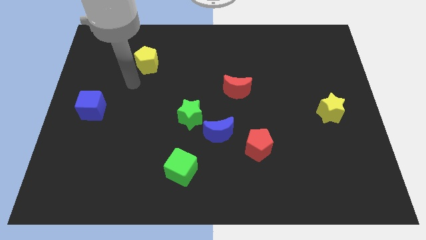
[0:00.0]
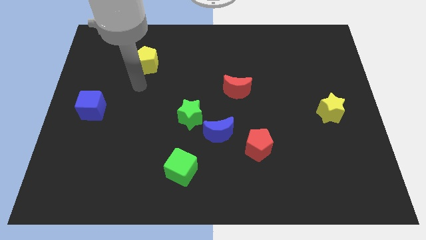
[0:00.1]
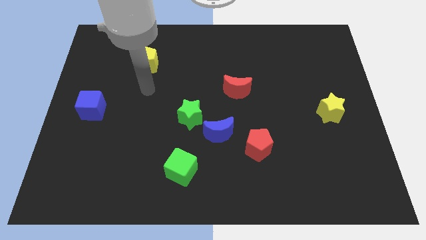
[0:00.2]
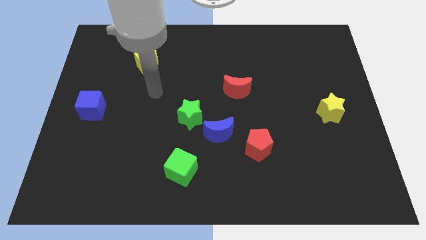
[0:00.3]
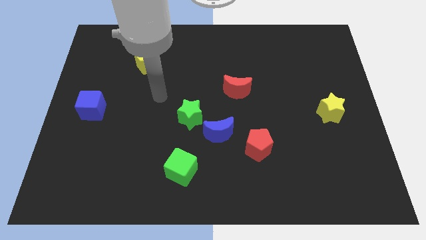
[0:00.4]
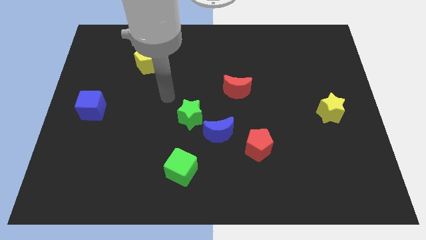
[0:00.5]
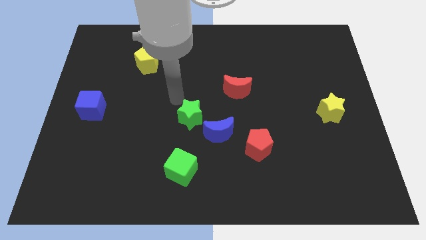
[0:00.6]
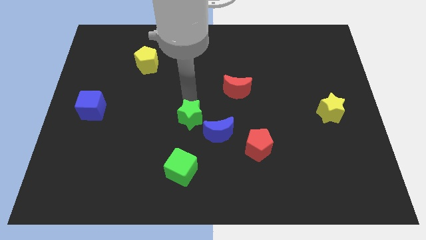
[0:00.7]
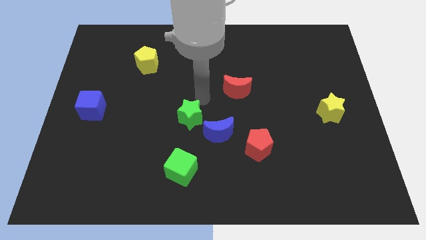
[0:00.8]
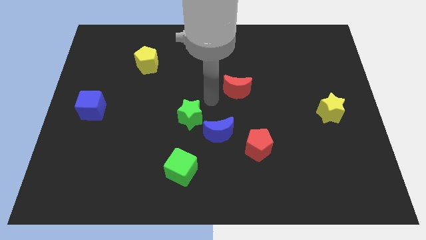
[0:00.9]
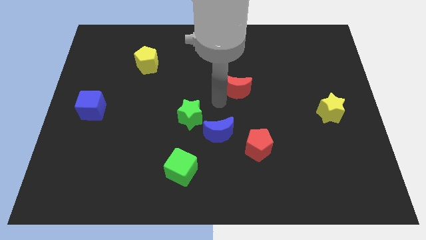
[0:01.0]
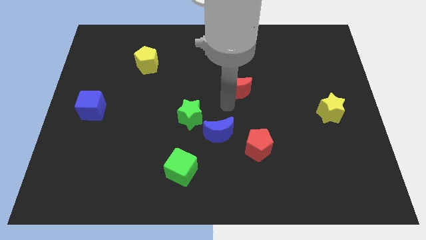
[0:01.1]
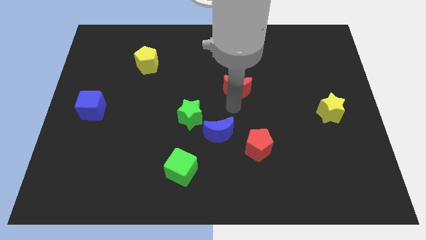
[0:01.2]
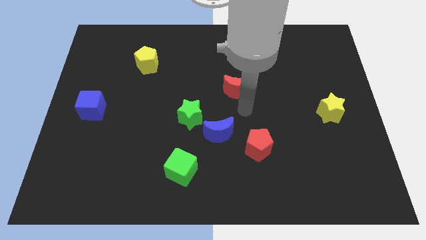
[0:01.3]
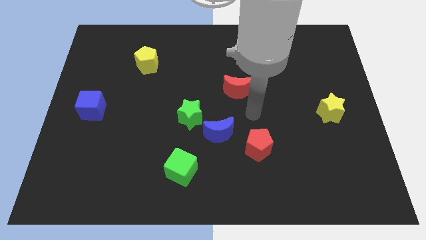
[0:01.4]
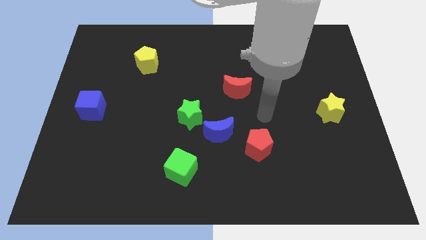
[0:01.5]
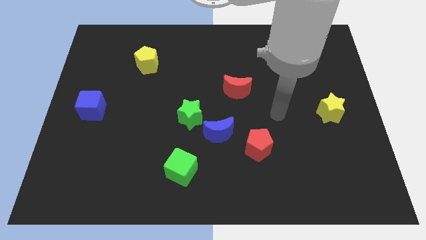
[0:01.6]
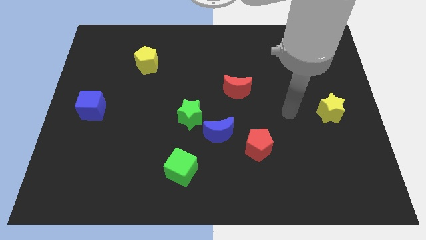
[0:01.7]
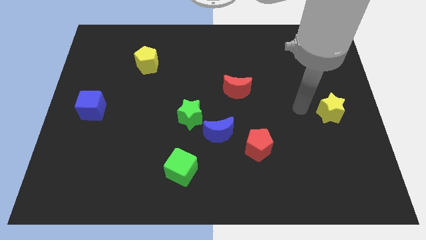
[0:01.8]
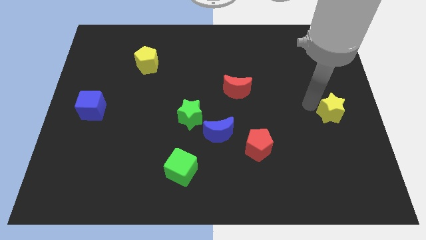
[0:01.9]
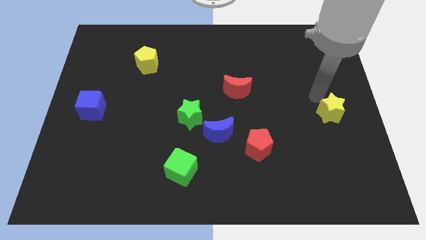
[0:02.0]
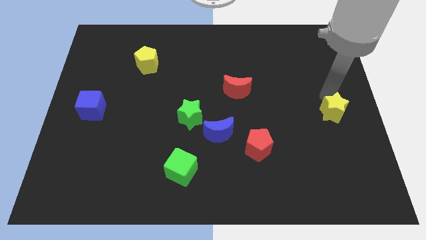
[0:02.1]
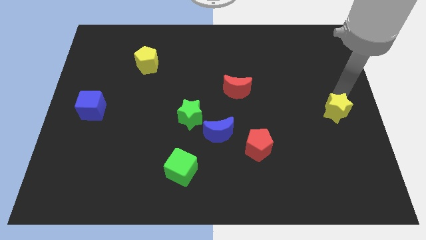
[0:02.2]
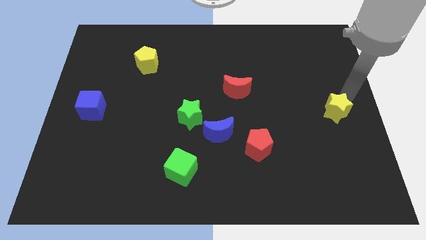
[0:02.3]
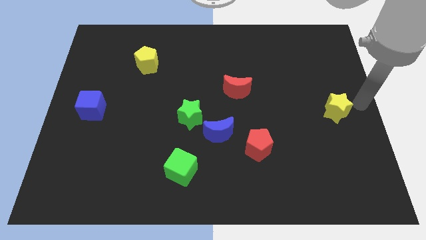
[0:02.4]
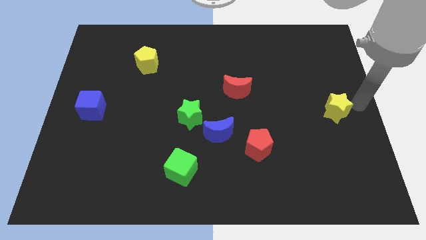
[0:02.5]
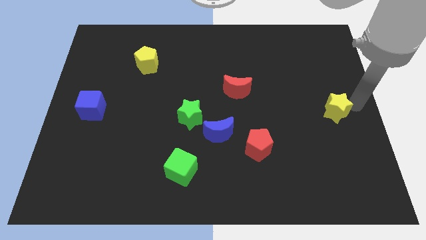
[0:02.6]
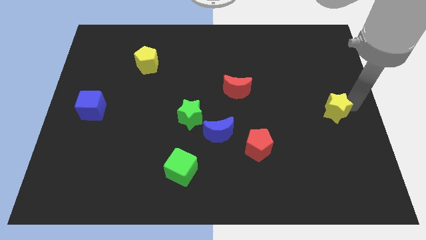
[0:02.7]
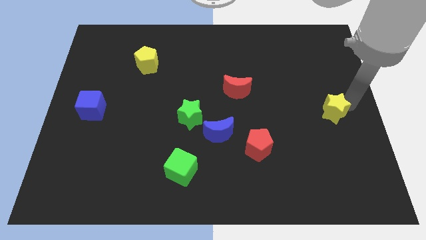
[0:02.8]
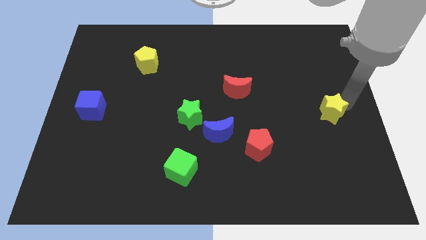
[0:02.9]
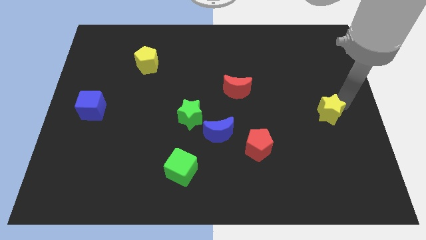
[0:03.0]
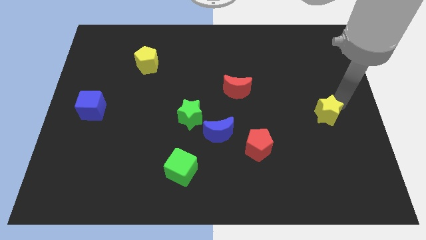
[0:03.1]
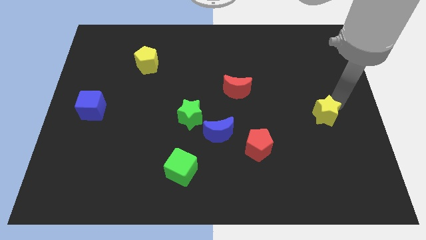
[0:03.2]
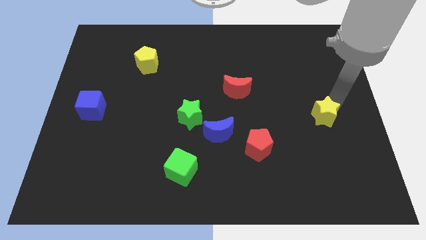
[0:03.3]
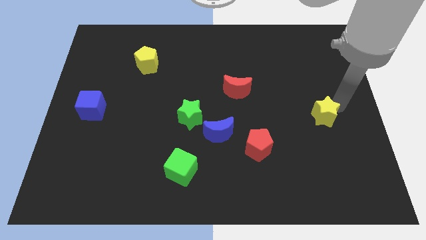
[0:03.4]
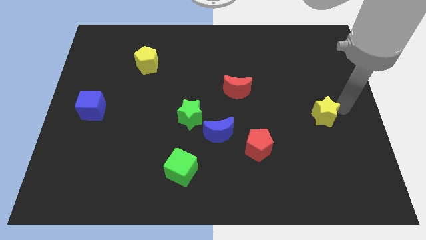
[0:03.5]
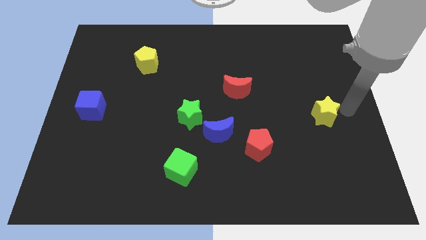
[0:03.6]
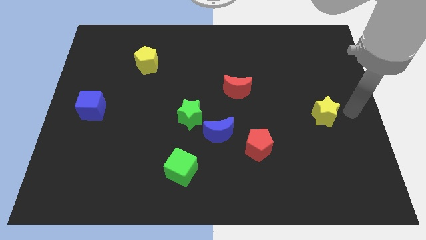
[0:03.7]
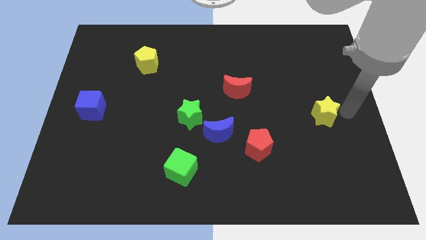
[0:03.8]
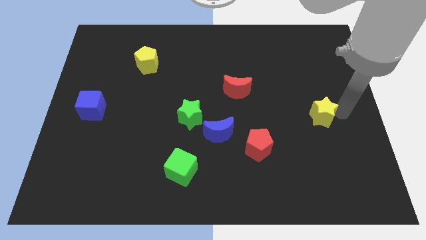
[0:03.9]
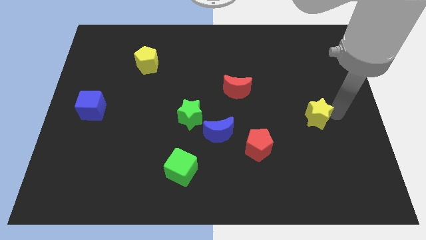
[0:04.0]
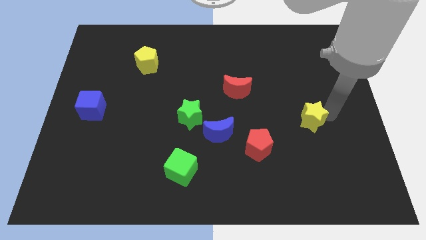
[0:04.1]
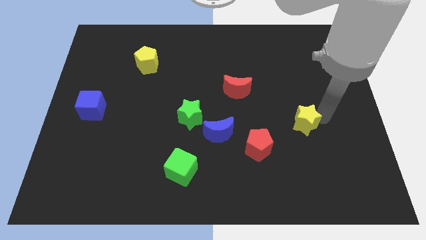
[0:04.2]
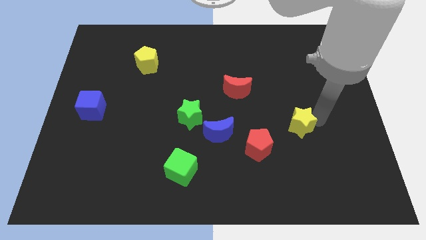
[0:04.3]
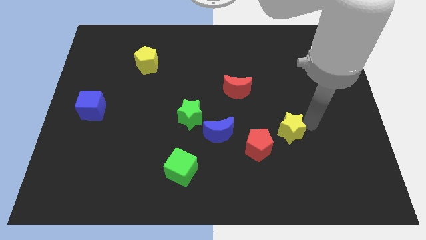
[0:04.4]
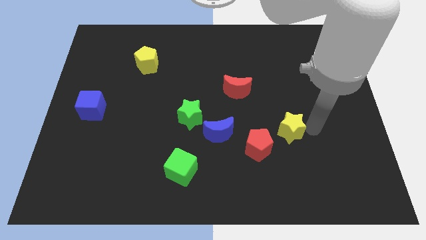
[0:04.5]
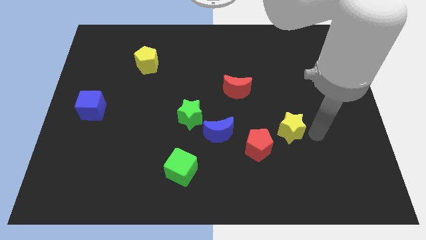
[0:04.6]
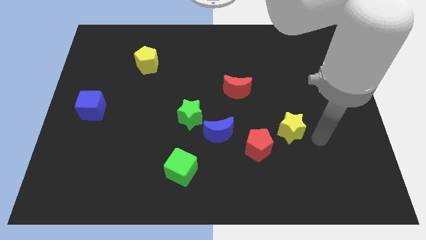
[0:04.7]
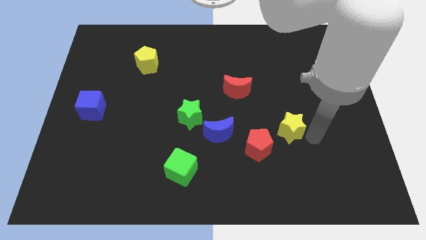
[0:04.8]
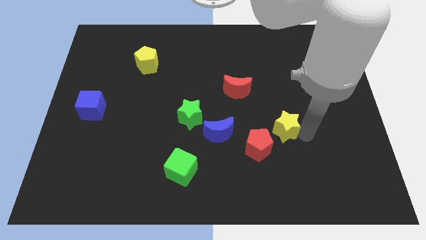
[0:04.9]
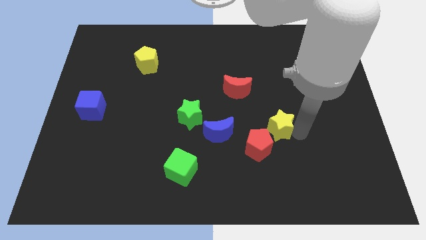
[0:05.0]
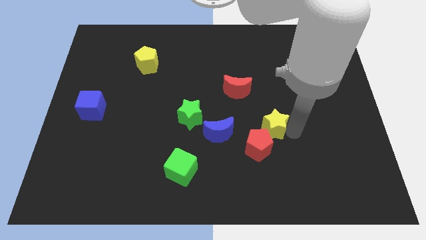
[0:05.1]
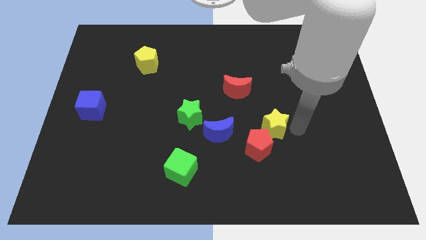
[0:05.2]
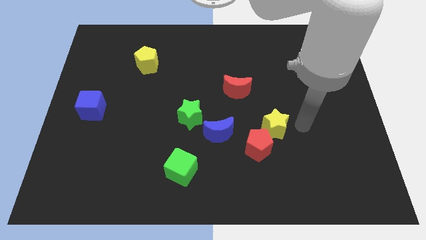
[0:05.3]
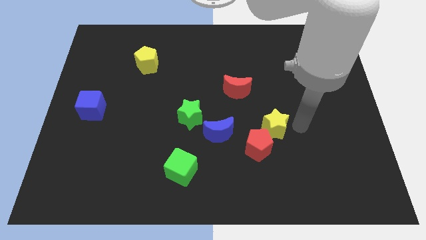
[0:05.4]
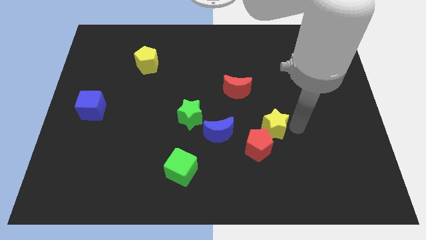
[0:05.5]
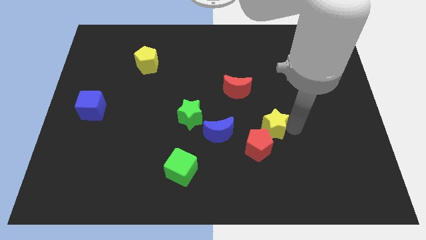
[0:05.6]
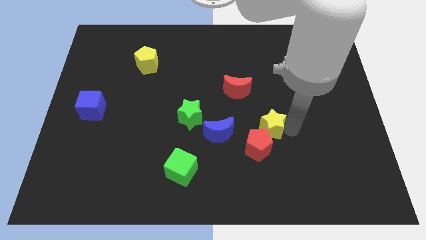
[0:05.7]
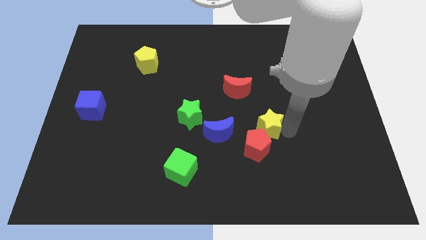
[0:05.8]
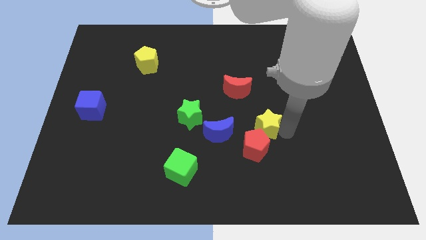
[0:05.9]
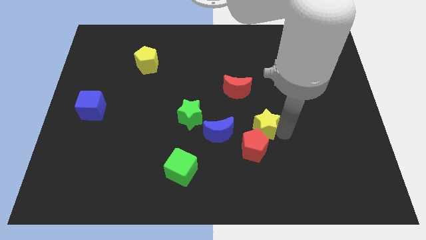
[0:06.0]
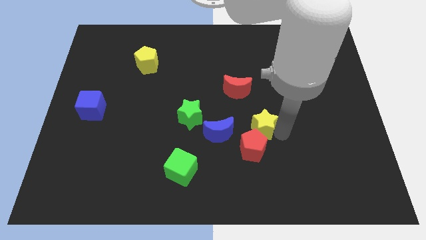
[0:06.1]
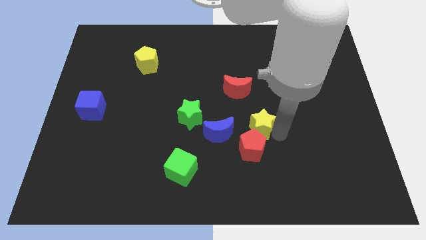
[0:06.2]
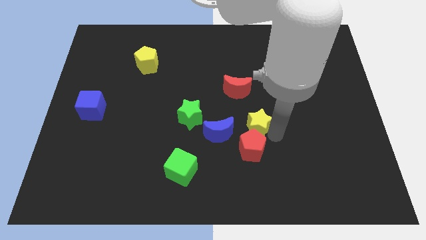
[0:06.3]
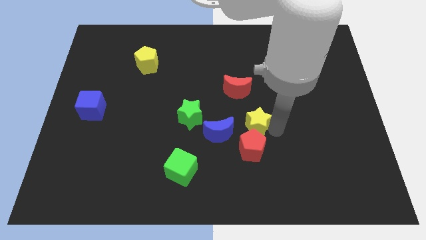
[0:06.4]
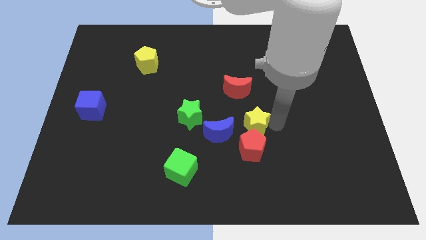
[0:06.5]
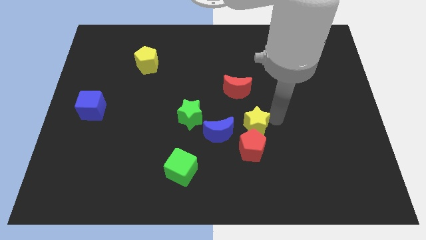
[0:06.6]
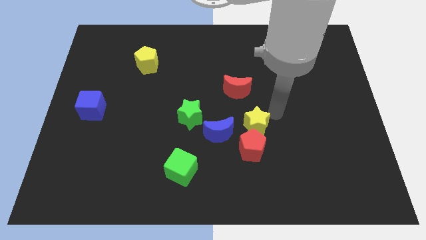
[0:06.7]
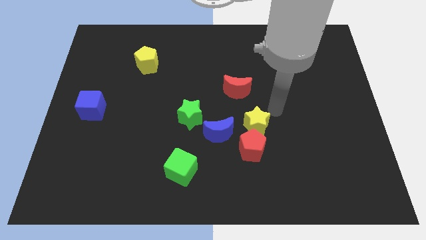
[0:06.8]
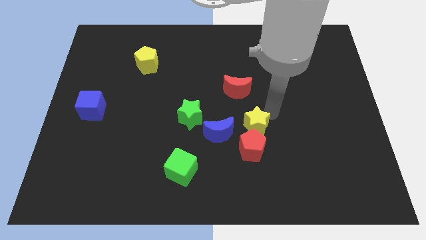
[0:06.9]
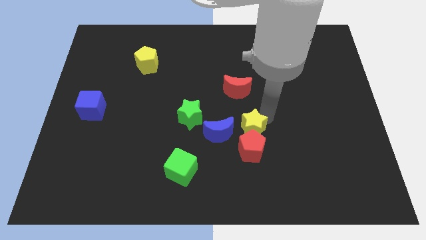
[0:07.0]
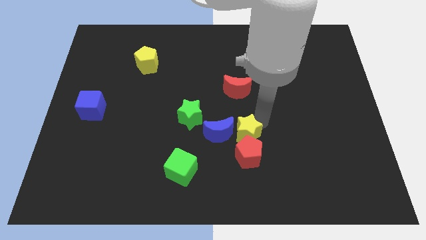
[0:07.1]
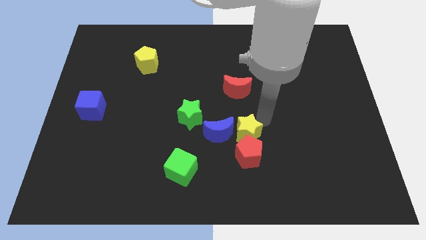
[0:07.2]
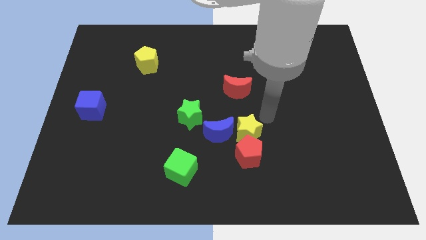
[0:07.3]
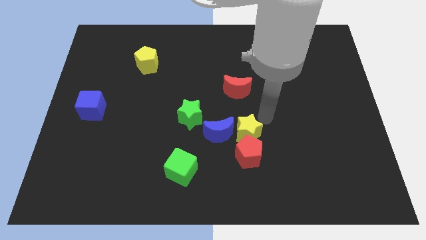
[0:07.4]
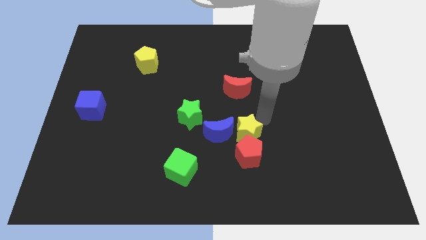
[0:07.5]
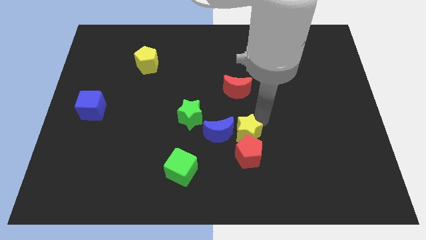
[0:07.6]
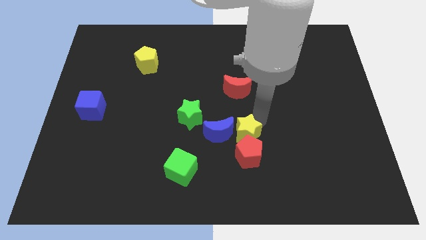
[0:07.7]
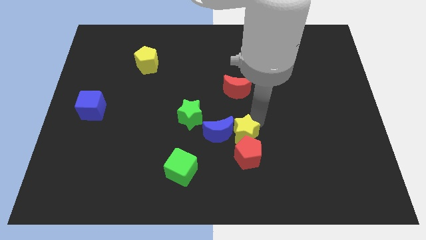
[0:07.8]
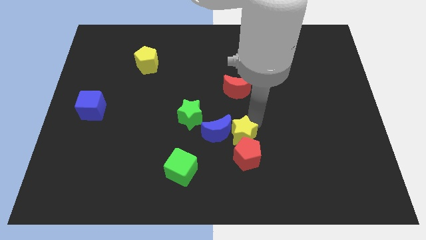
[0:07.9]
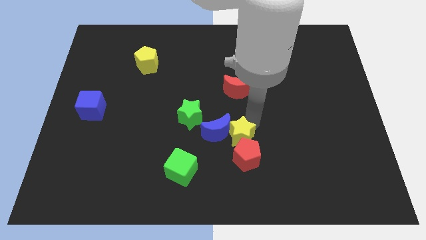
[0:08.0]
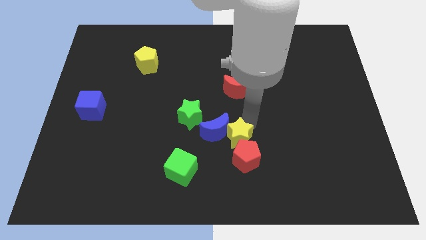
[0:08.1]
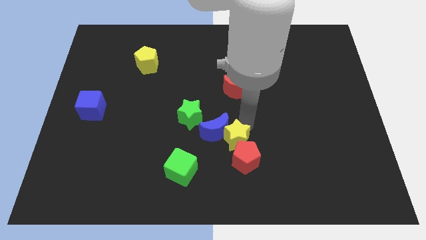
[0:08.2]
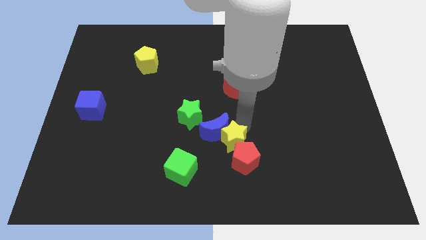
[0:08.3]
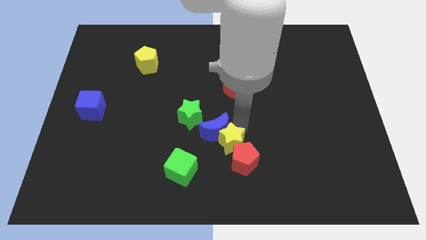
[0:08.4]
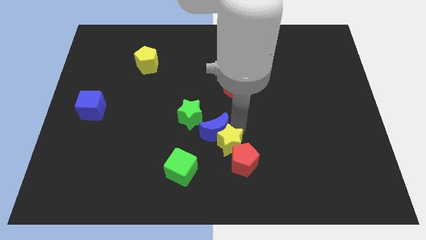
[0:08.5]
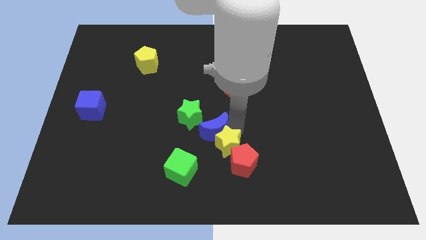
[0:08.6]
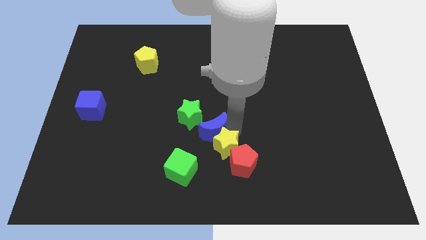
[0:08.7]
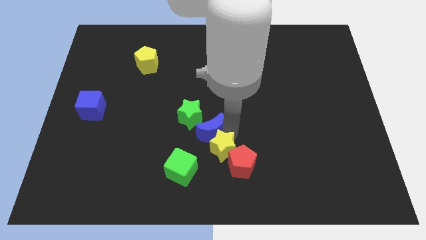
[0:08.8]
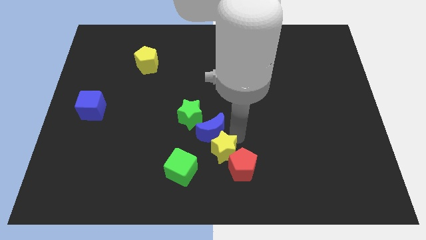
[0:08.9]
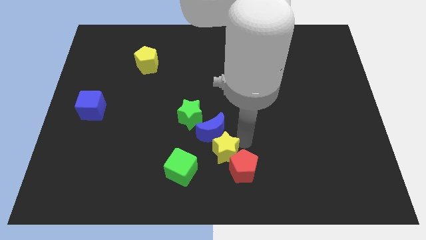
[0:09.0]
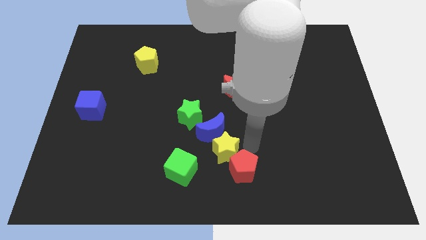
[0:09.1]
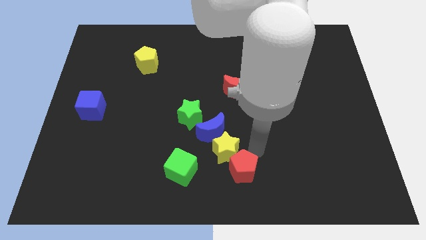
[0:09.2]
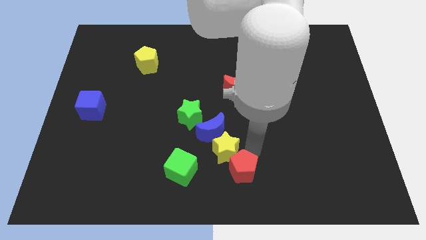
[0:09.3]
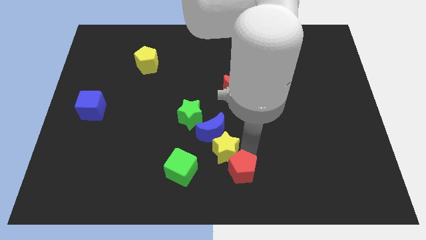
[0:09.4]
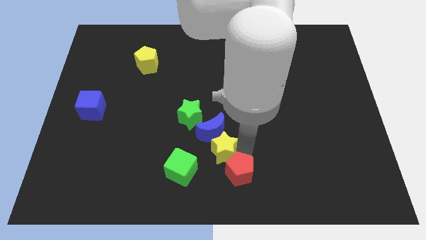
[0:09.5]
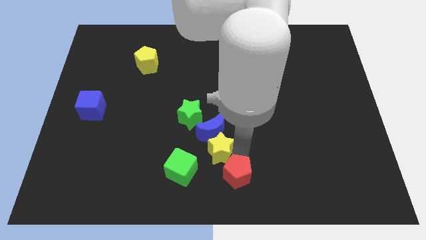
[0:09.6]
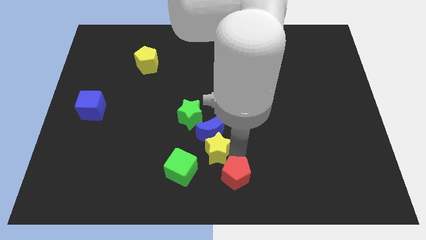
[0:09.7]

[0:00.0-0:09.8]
move the yellow star to the bottom left of the blue moon
